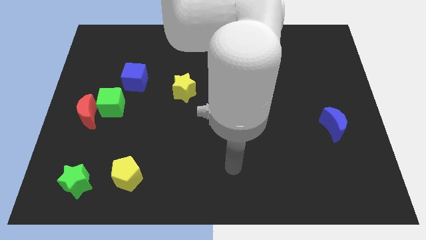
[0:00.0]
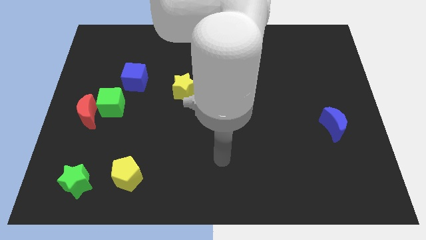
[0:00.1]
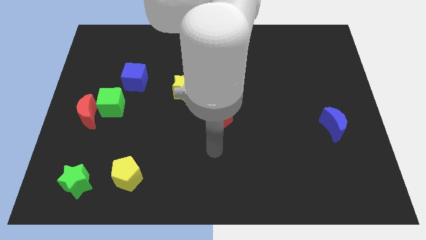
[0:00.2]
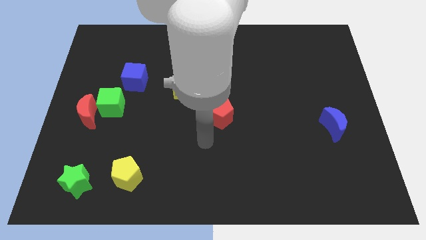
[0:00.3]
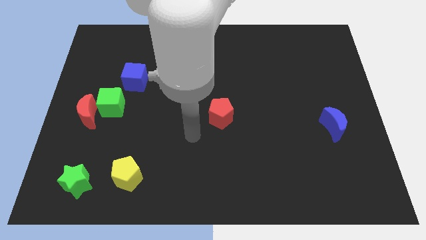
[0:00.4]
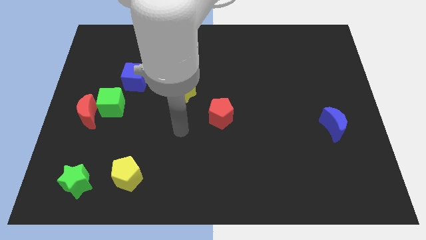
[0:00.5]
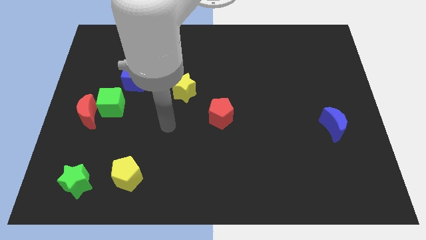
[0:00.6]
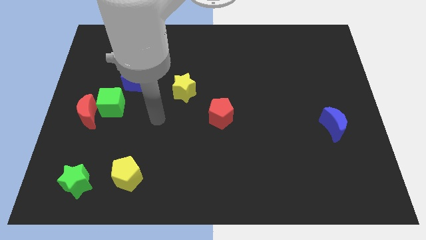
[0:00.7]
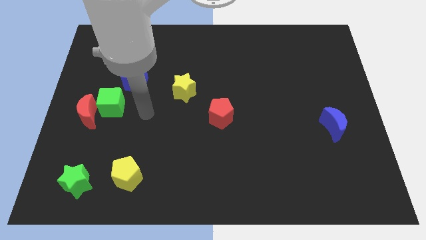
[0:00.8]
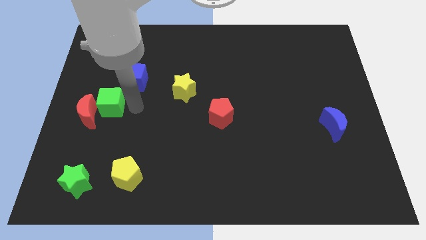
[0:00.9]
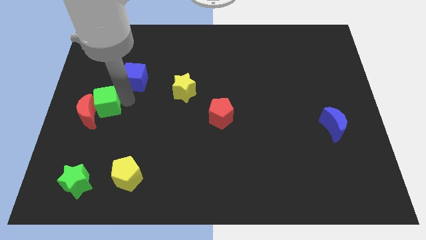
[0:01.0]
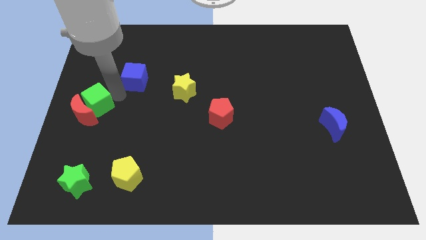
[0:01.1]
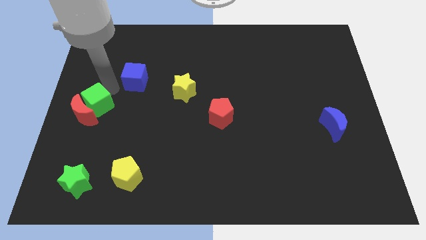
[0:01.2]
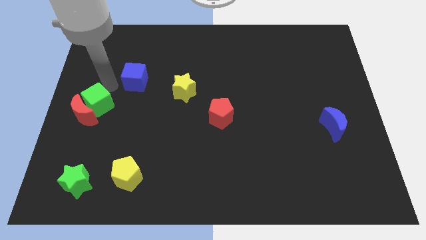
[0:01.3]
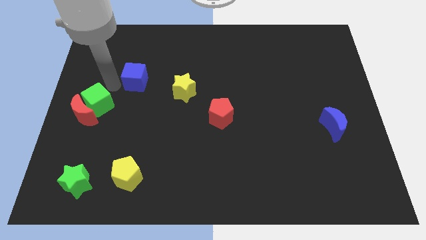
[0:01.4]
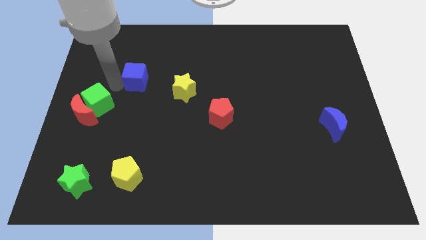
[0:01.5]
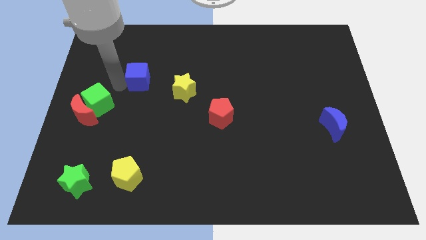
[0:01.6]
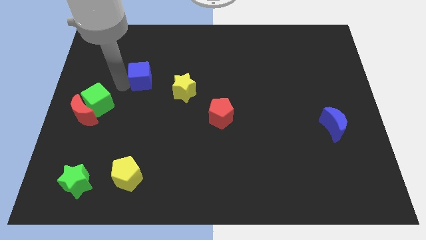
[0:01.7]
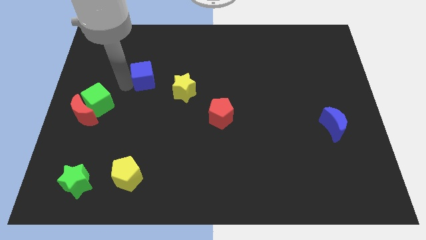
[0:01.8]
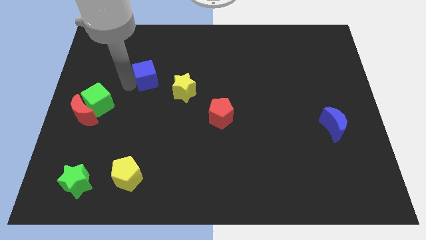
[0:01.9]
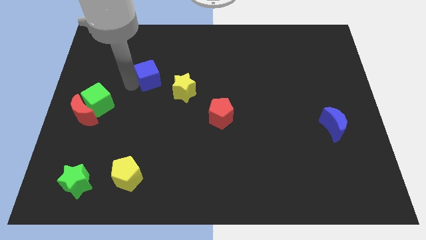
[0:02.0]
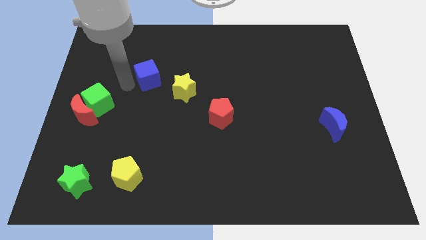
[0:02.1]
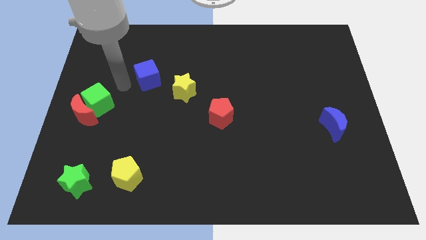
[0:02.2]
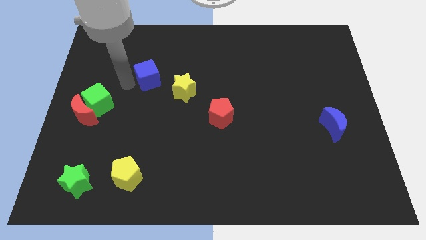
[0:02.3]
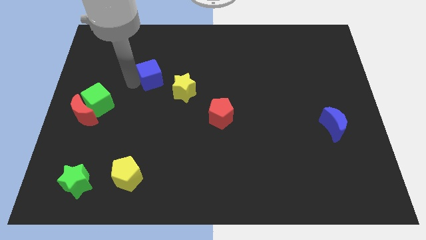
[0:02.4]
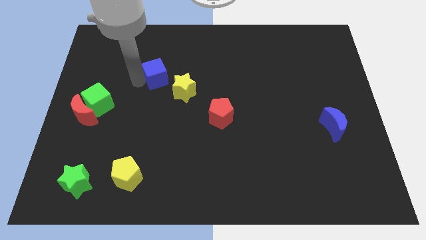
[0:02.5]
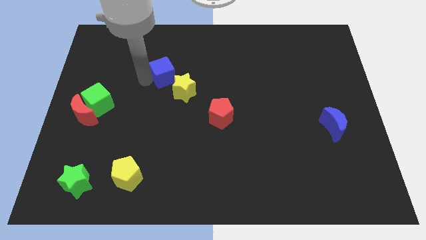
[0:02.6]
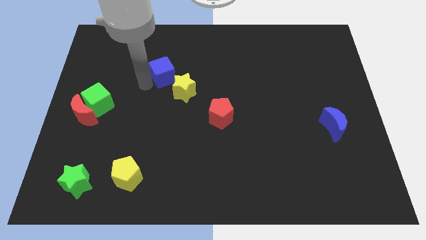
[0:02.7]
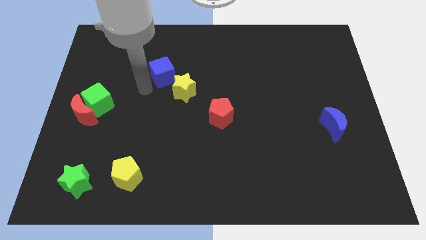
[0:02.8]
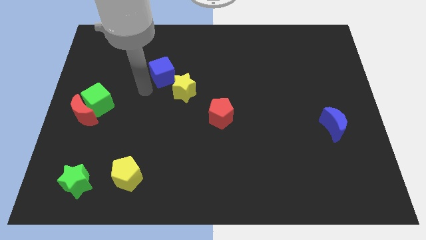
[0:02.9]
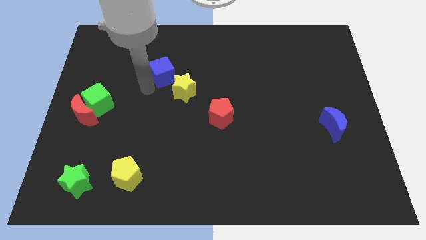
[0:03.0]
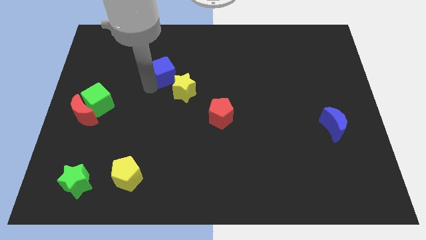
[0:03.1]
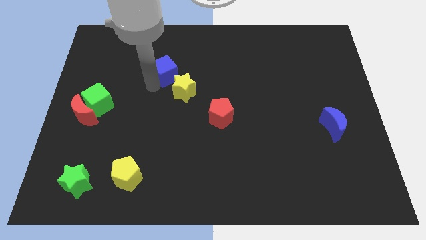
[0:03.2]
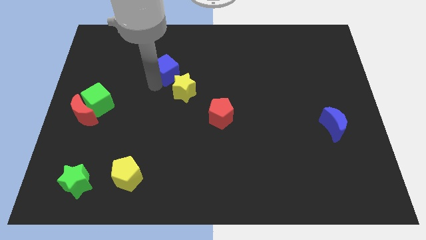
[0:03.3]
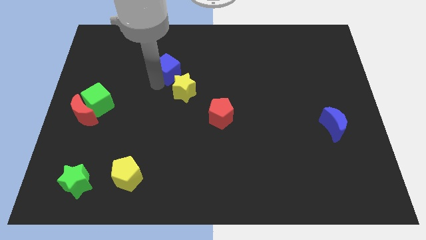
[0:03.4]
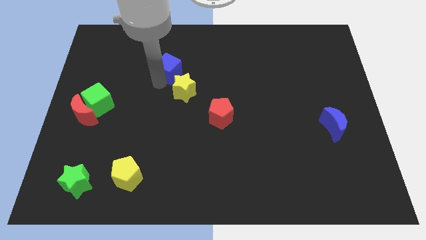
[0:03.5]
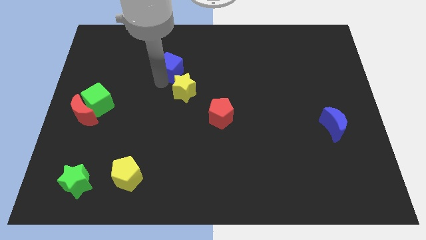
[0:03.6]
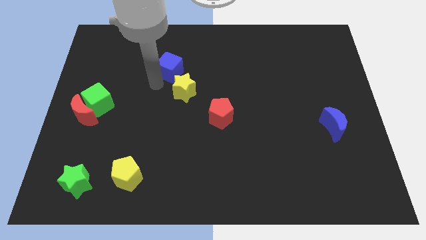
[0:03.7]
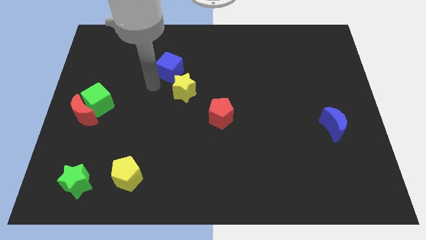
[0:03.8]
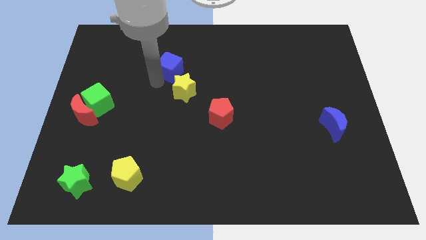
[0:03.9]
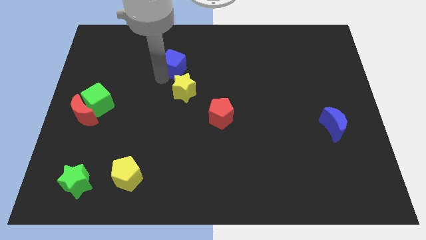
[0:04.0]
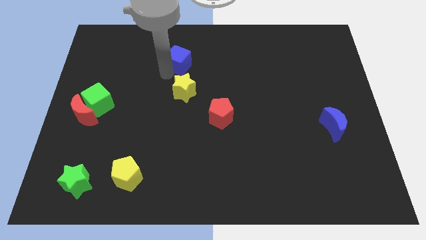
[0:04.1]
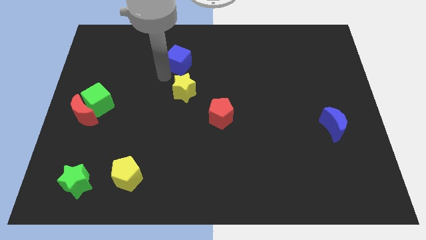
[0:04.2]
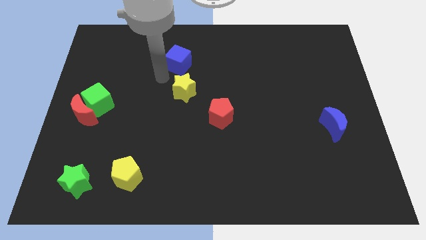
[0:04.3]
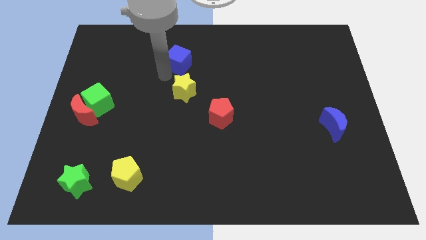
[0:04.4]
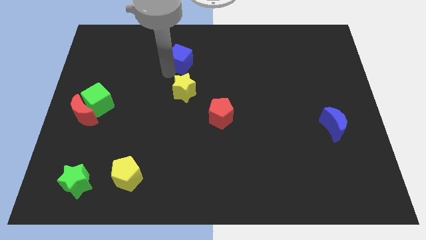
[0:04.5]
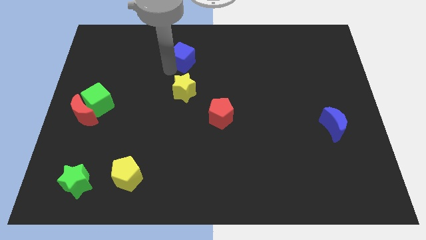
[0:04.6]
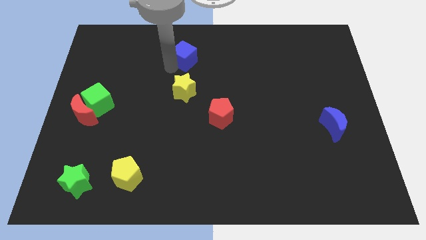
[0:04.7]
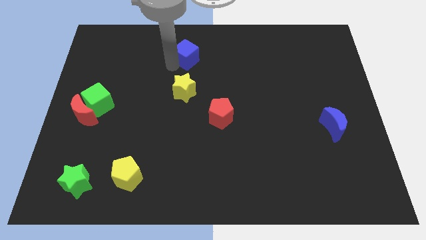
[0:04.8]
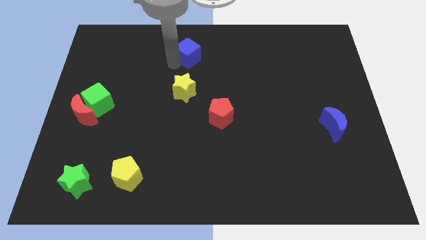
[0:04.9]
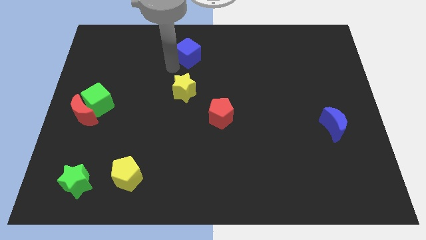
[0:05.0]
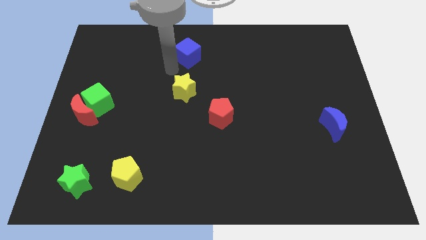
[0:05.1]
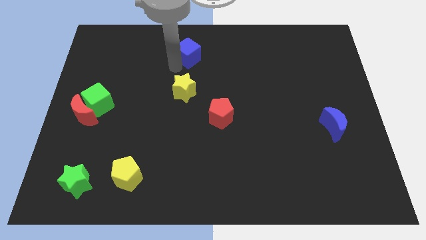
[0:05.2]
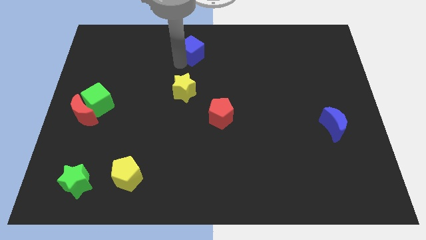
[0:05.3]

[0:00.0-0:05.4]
slide the blue cube to the top side

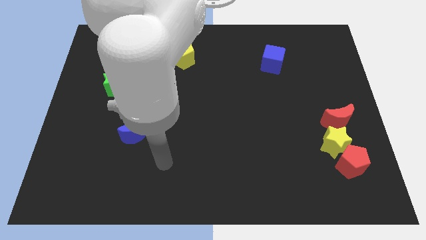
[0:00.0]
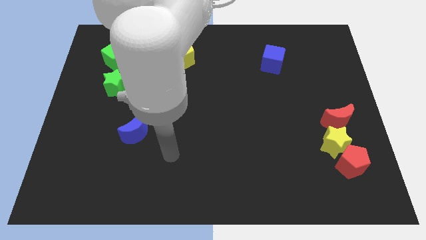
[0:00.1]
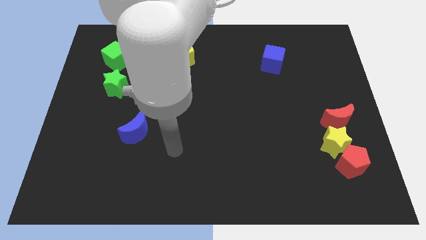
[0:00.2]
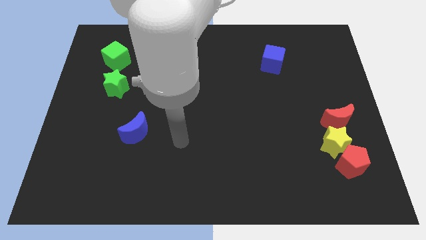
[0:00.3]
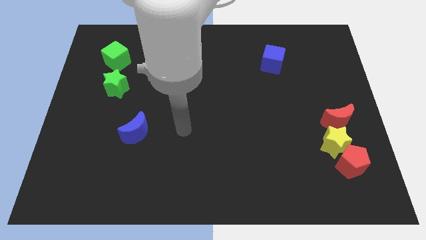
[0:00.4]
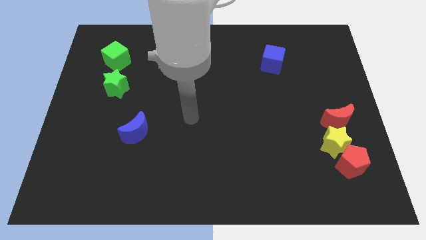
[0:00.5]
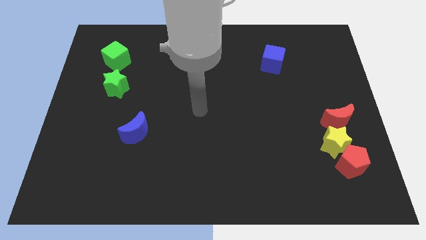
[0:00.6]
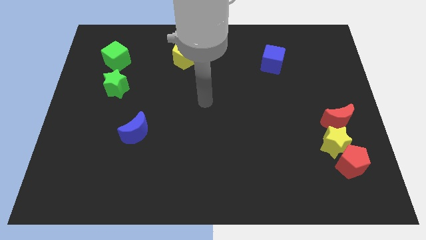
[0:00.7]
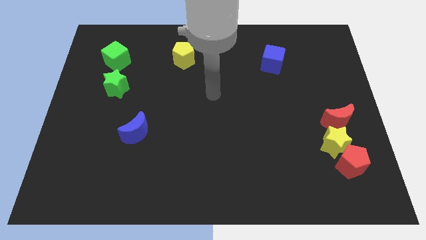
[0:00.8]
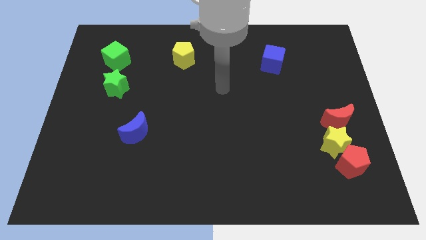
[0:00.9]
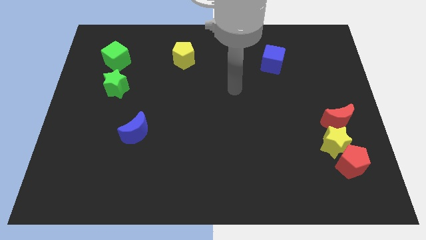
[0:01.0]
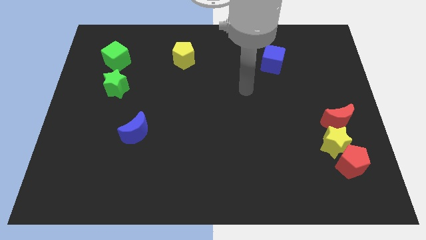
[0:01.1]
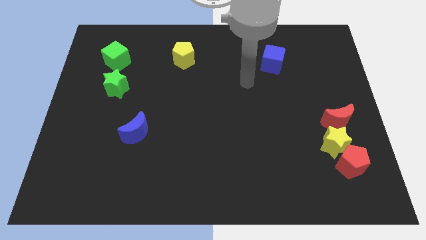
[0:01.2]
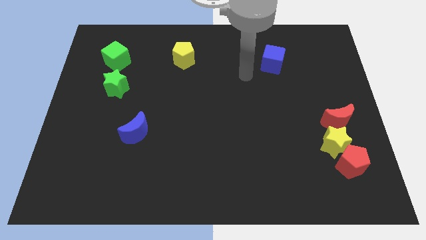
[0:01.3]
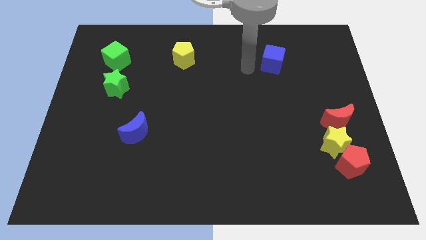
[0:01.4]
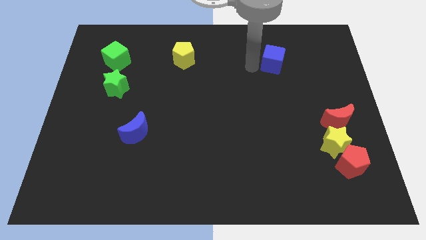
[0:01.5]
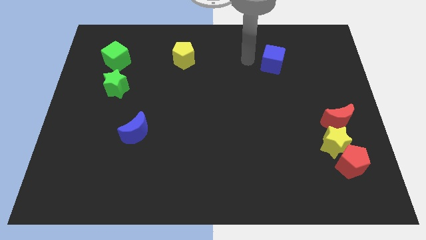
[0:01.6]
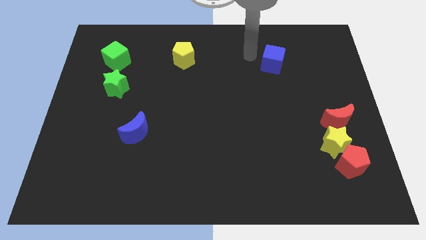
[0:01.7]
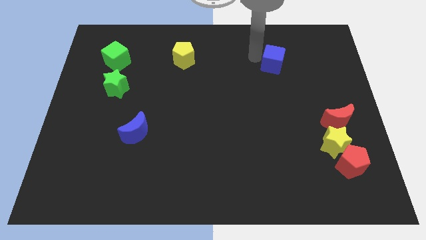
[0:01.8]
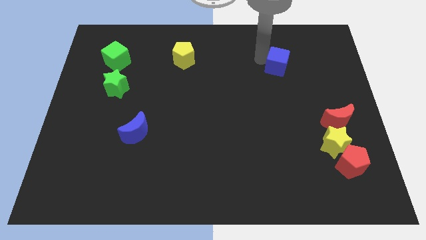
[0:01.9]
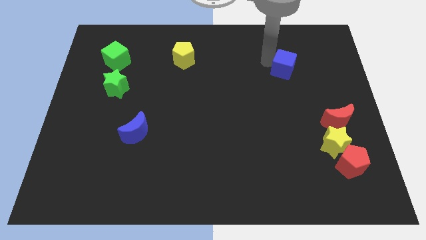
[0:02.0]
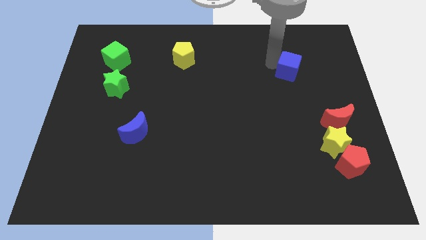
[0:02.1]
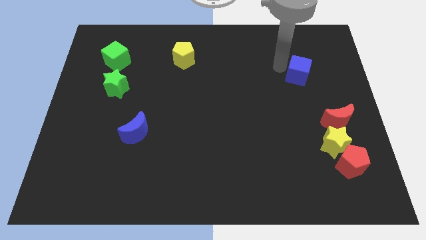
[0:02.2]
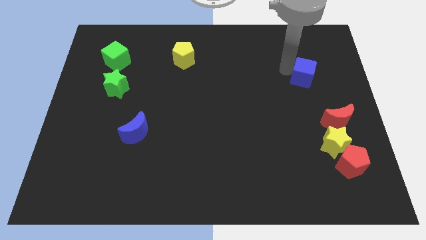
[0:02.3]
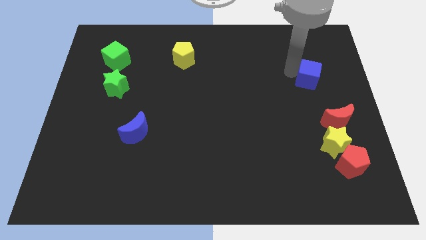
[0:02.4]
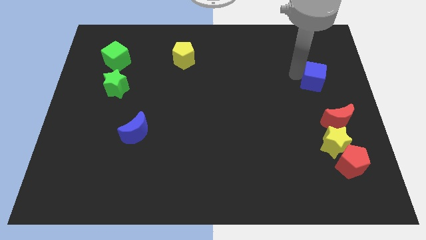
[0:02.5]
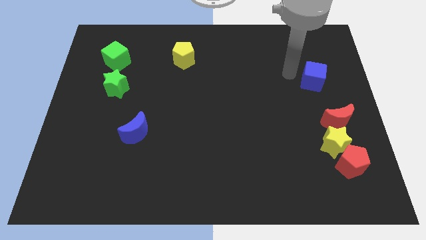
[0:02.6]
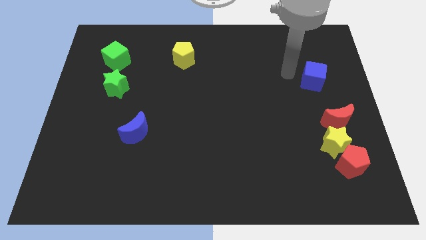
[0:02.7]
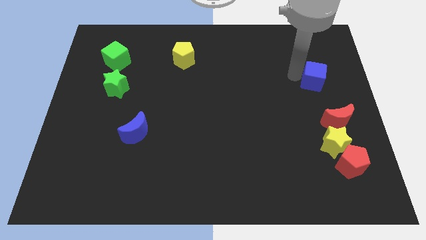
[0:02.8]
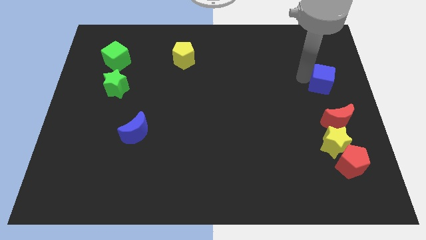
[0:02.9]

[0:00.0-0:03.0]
push the blue cube to the right side
